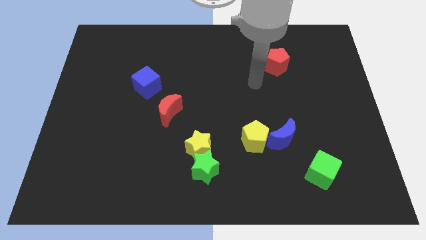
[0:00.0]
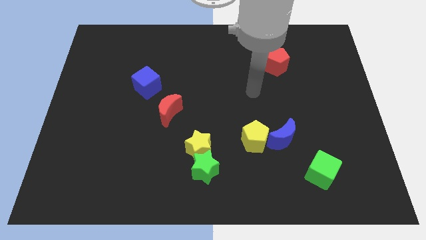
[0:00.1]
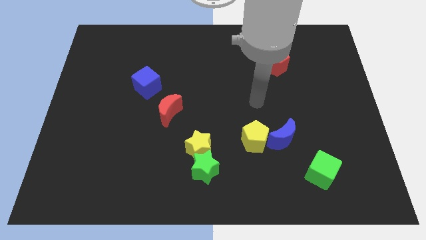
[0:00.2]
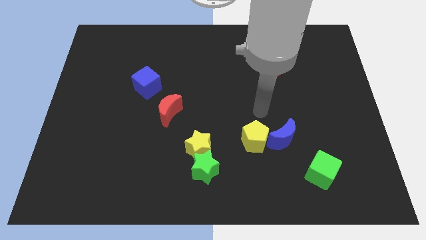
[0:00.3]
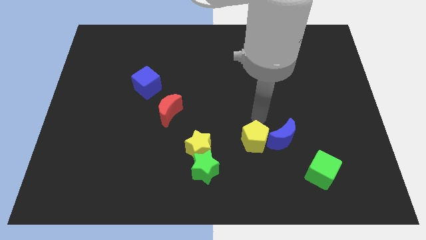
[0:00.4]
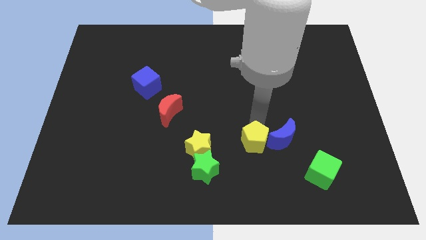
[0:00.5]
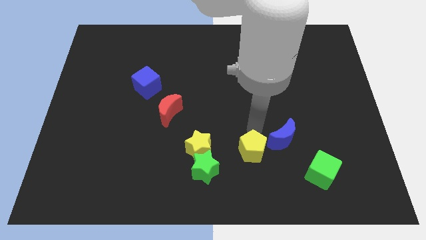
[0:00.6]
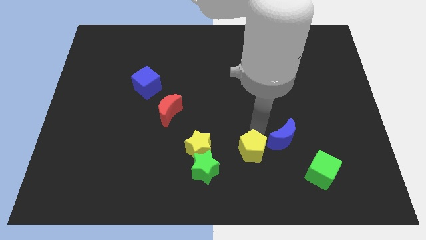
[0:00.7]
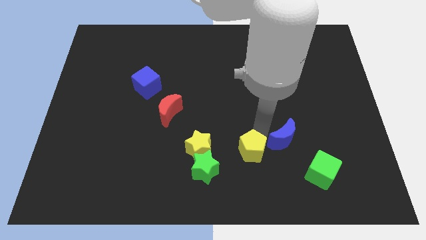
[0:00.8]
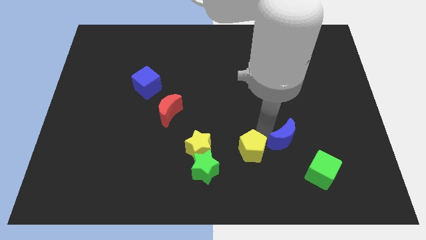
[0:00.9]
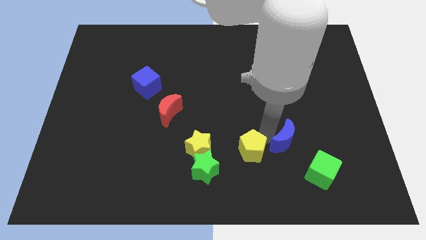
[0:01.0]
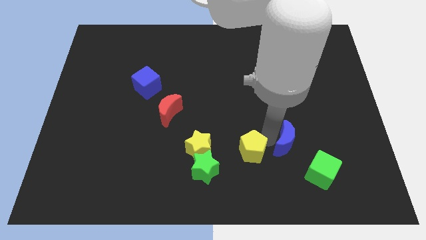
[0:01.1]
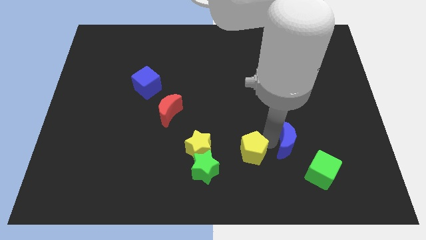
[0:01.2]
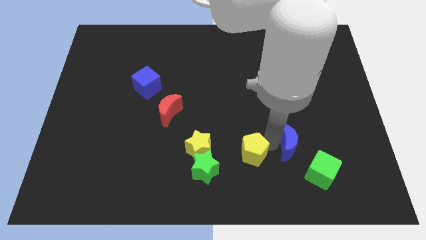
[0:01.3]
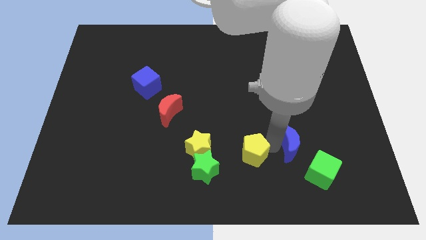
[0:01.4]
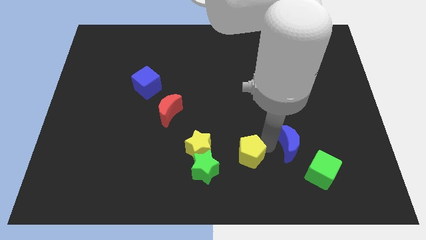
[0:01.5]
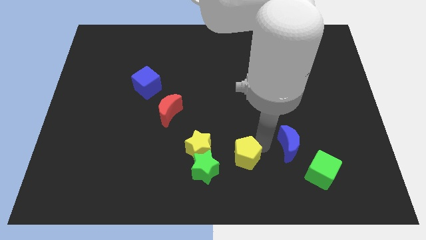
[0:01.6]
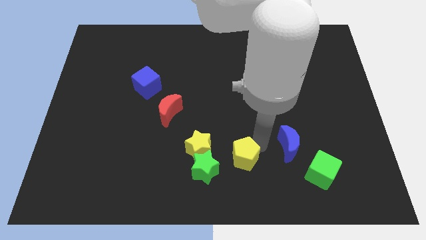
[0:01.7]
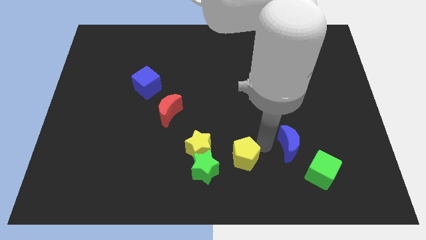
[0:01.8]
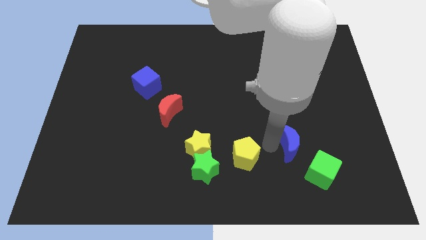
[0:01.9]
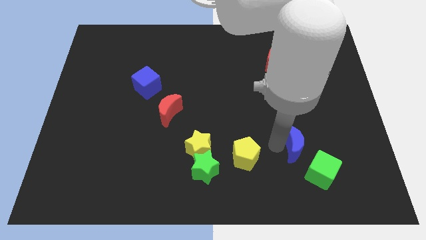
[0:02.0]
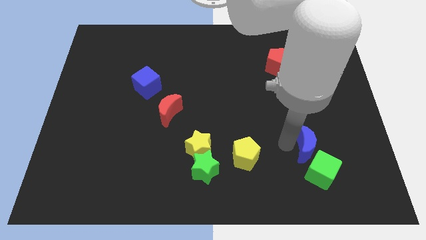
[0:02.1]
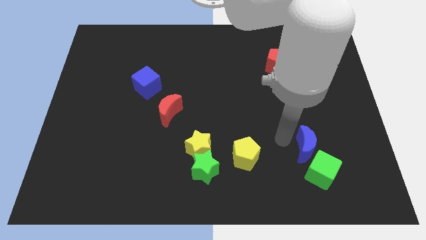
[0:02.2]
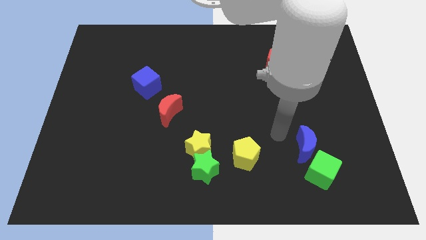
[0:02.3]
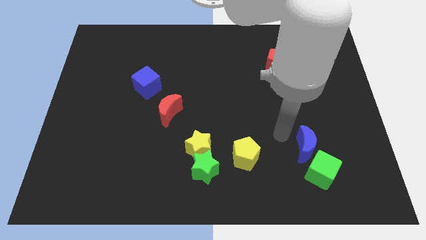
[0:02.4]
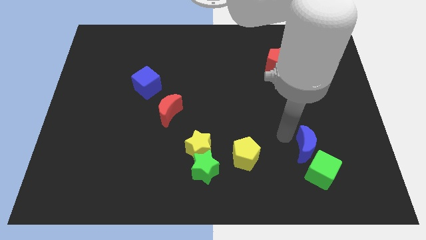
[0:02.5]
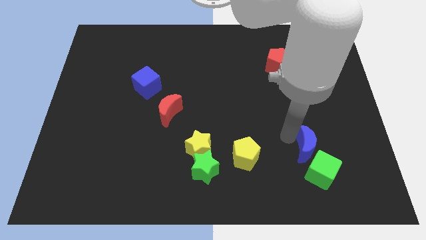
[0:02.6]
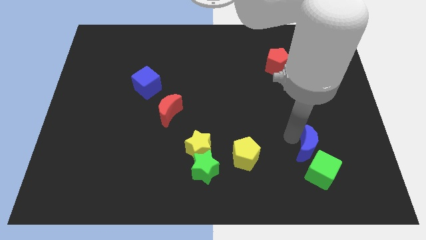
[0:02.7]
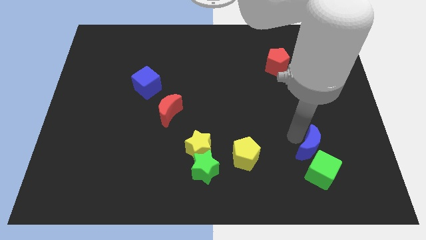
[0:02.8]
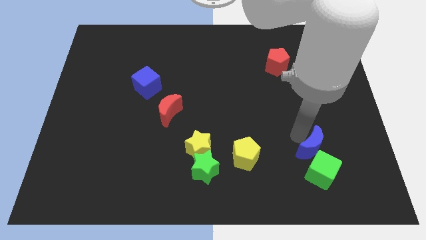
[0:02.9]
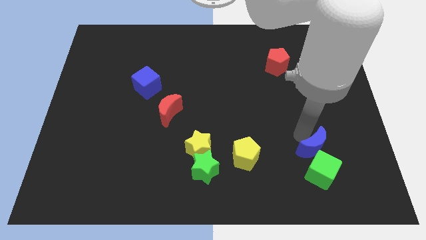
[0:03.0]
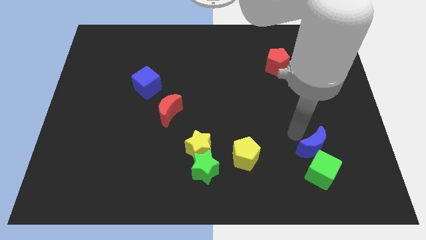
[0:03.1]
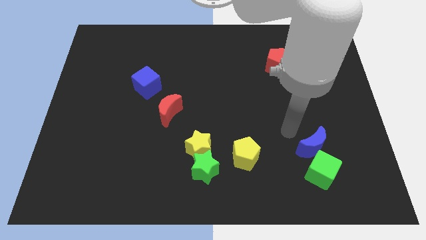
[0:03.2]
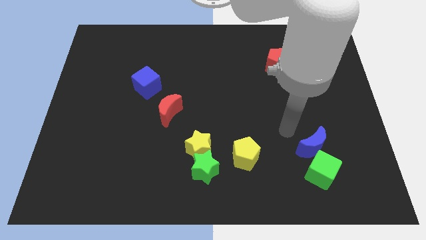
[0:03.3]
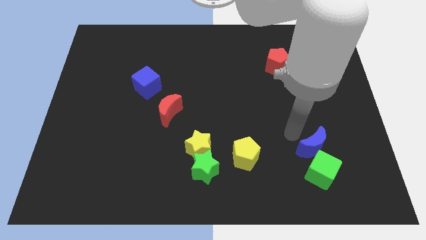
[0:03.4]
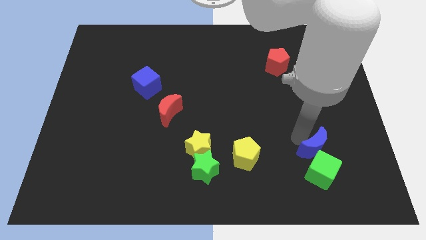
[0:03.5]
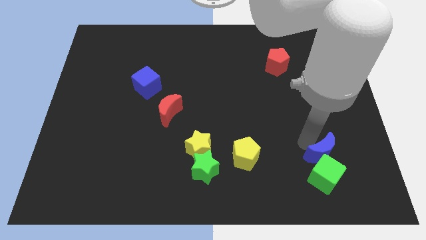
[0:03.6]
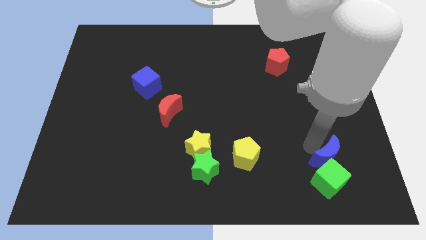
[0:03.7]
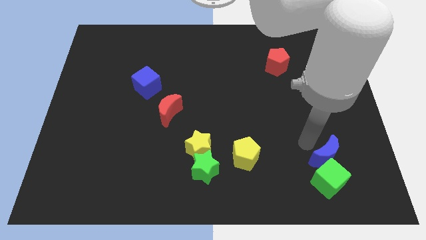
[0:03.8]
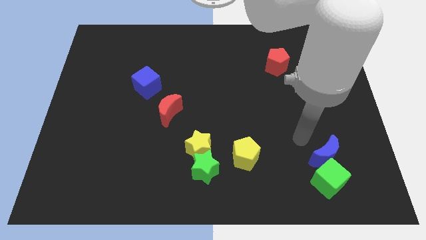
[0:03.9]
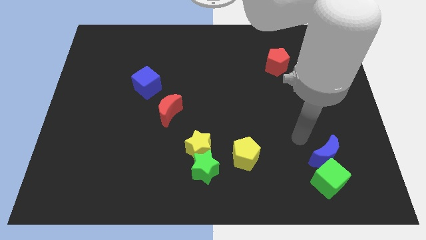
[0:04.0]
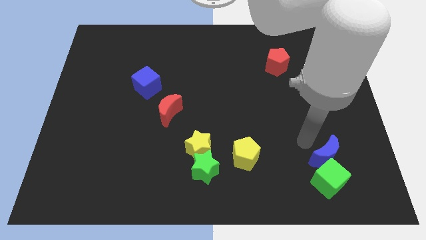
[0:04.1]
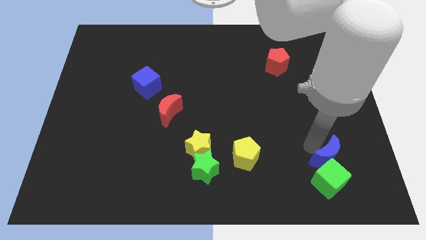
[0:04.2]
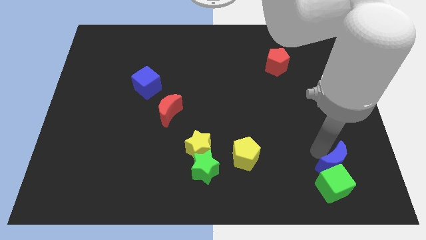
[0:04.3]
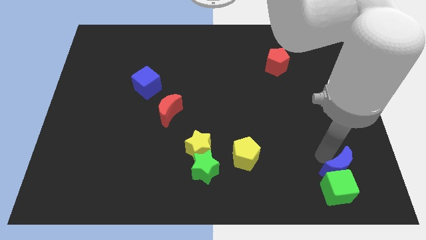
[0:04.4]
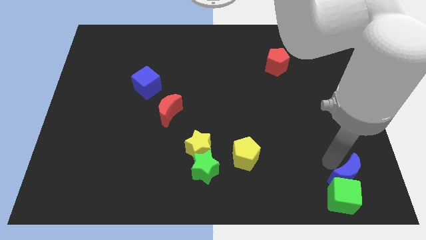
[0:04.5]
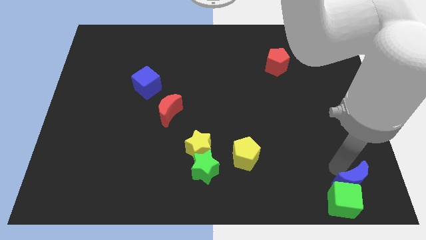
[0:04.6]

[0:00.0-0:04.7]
push the blue moon to the lower right corner

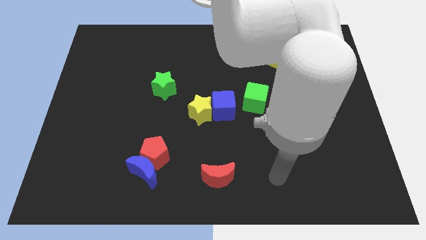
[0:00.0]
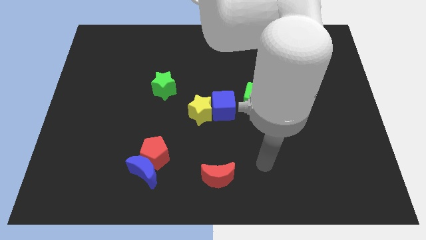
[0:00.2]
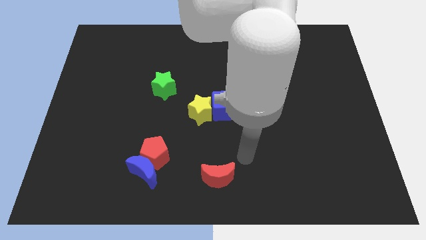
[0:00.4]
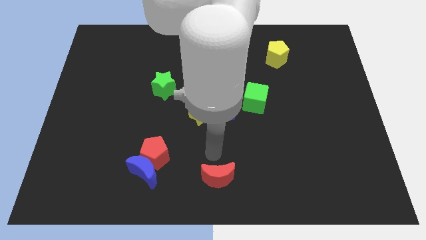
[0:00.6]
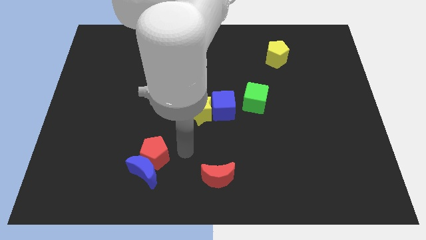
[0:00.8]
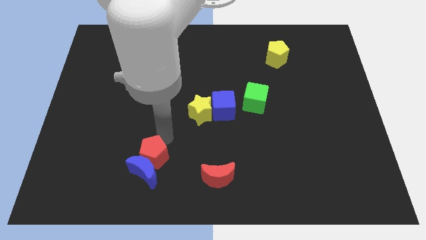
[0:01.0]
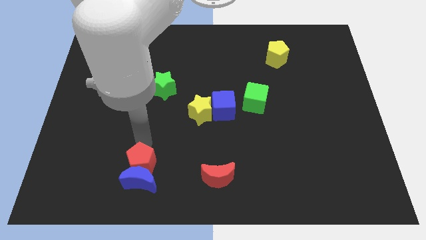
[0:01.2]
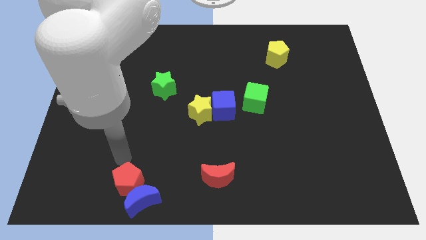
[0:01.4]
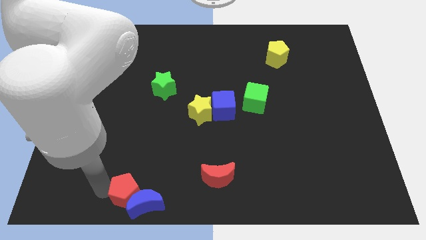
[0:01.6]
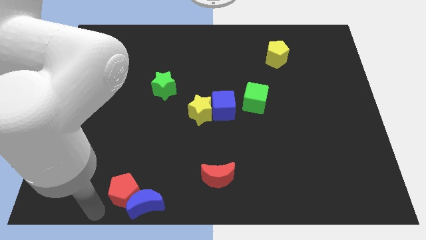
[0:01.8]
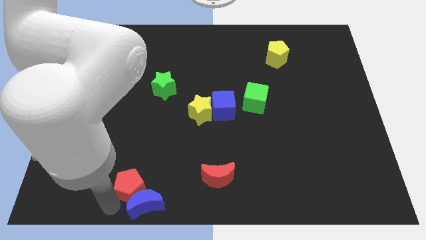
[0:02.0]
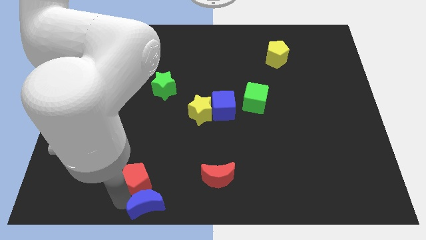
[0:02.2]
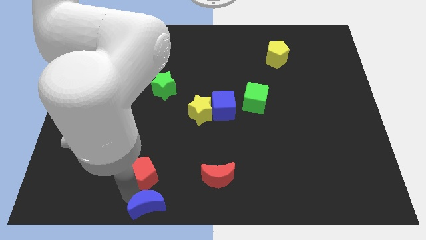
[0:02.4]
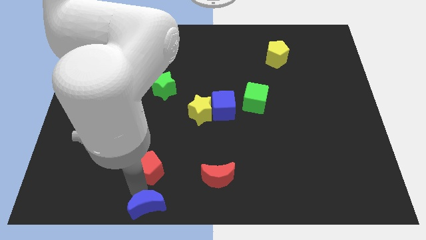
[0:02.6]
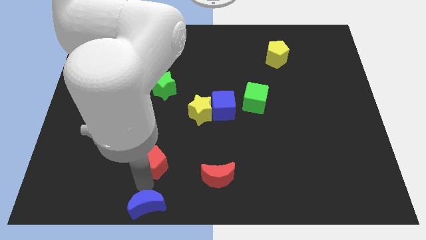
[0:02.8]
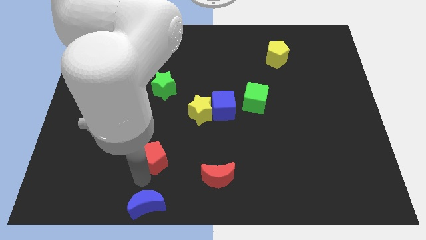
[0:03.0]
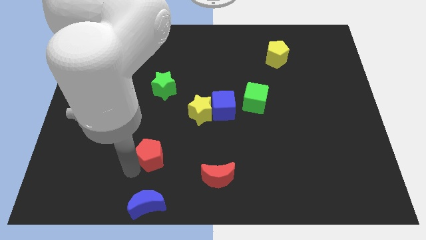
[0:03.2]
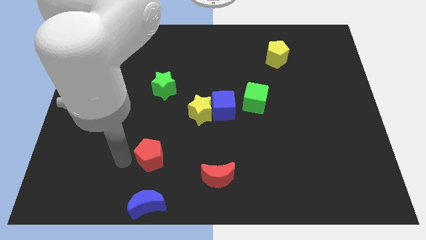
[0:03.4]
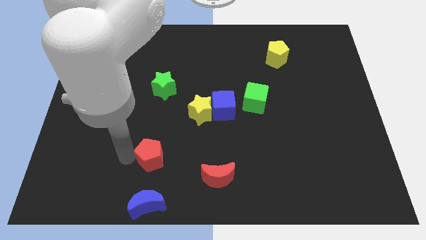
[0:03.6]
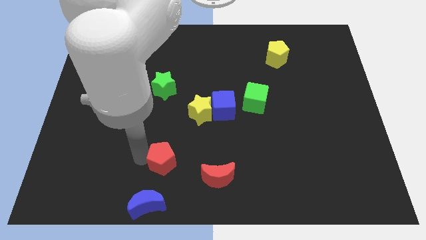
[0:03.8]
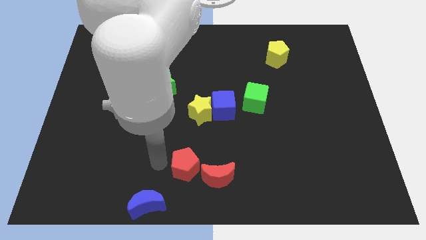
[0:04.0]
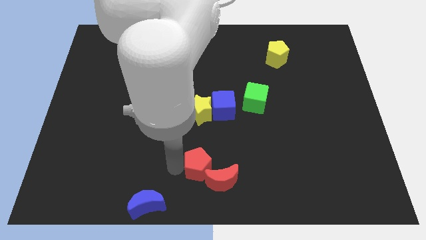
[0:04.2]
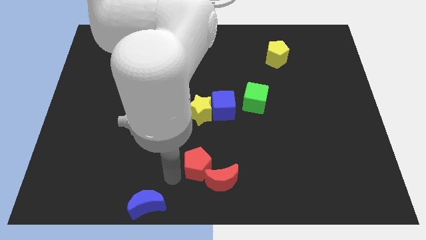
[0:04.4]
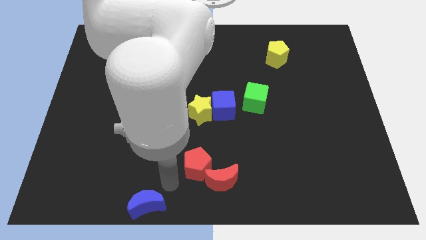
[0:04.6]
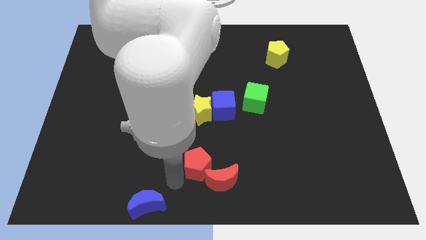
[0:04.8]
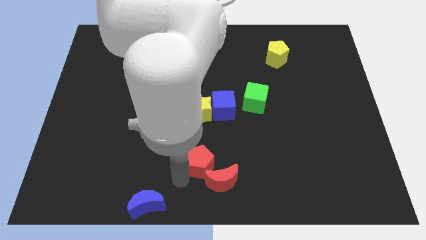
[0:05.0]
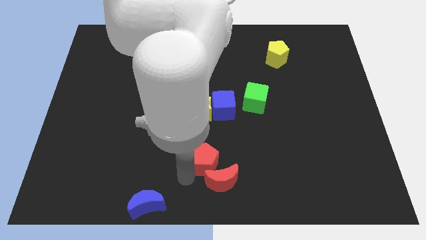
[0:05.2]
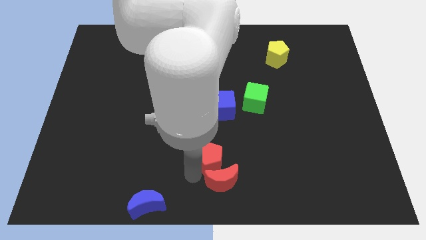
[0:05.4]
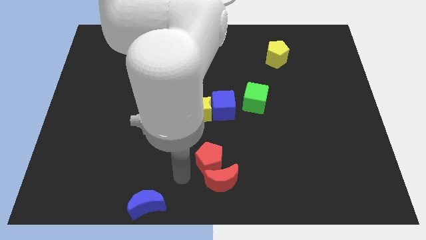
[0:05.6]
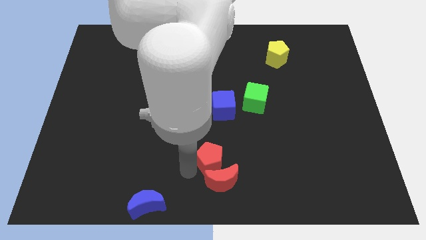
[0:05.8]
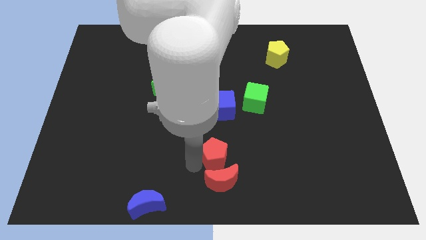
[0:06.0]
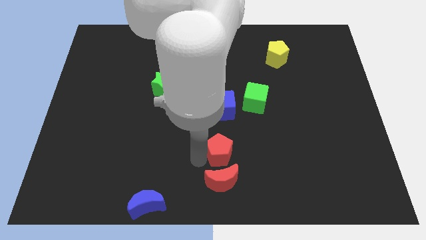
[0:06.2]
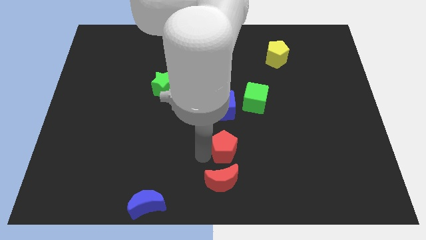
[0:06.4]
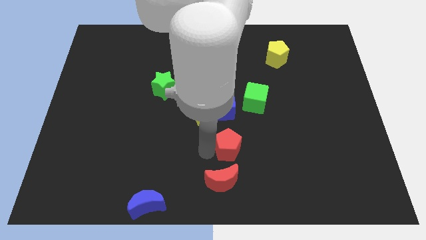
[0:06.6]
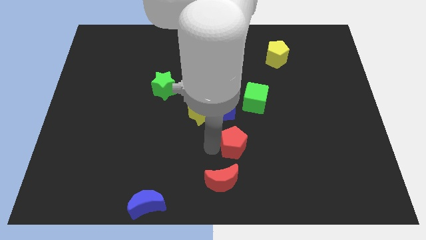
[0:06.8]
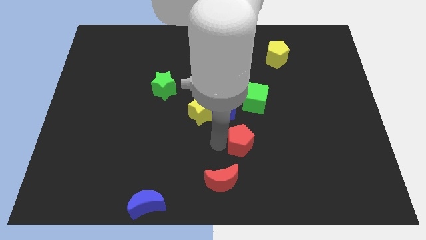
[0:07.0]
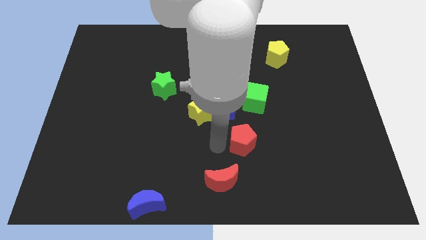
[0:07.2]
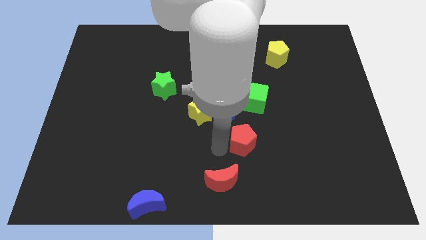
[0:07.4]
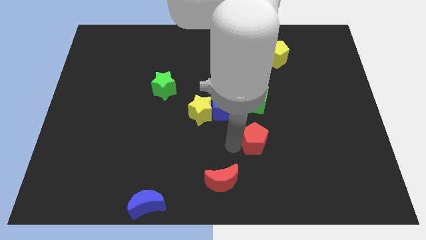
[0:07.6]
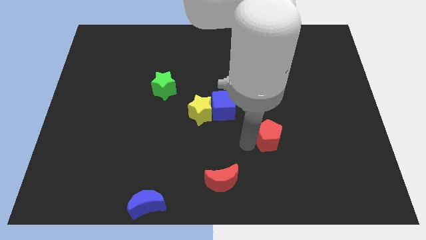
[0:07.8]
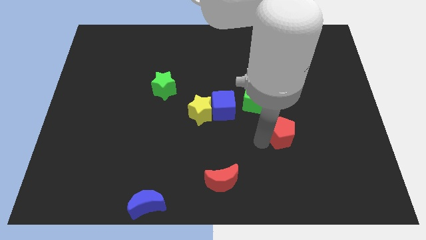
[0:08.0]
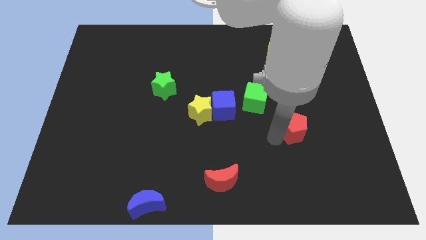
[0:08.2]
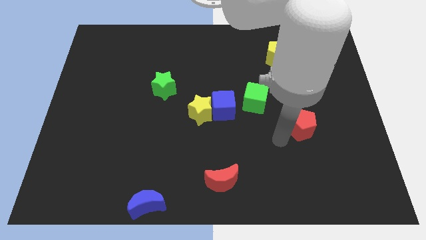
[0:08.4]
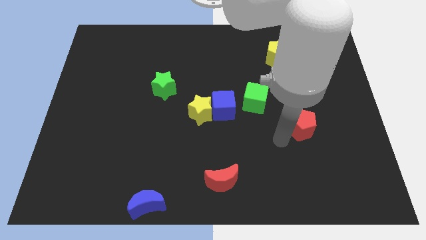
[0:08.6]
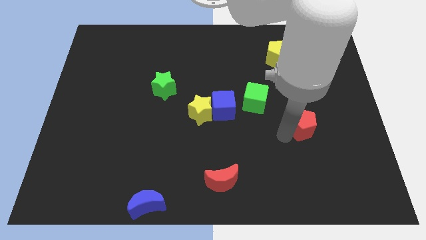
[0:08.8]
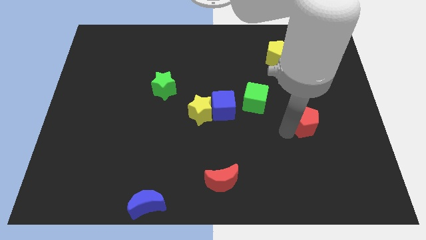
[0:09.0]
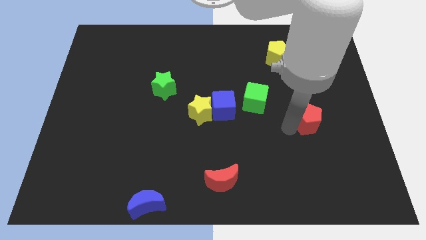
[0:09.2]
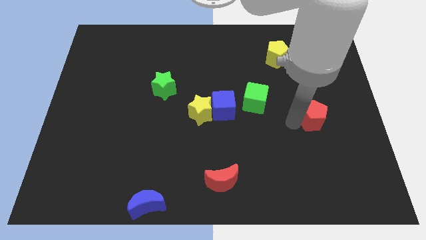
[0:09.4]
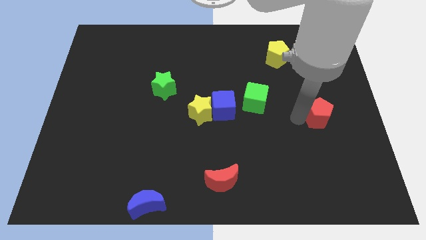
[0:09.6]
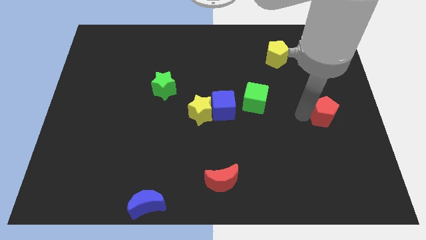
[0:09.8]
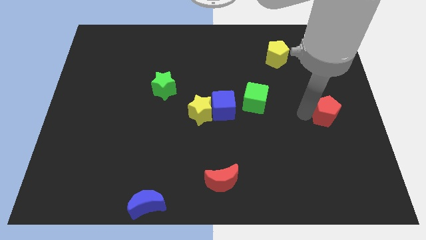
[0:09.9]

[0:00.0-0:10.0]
move the red pentagon to the right side of the board
